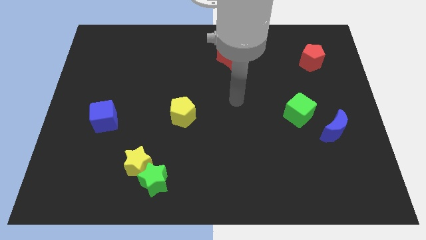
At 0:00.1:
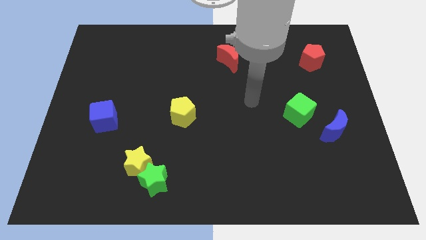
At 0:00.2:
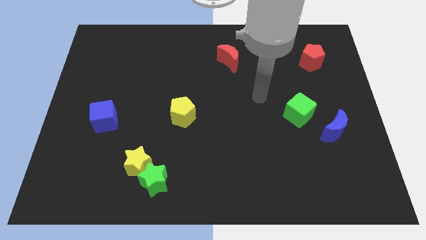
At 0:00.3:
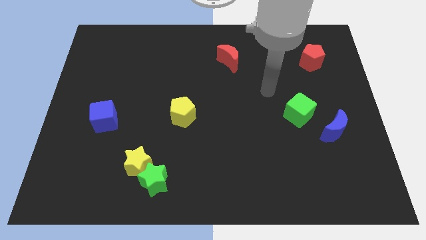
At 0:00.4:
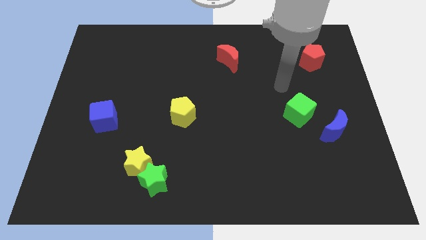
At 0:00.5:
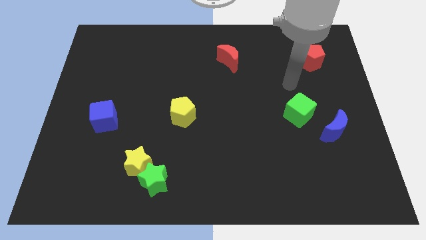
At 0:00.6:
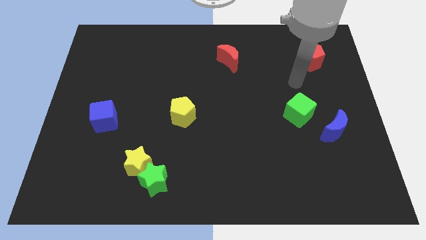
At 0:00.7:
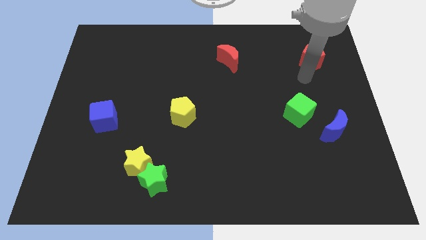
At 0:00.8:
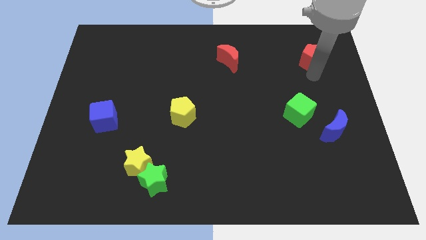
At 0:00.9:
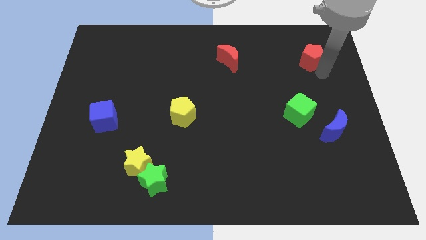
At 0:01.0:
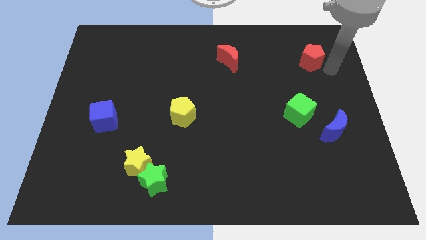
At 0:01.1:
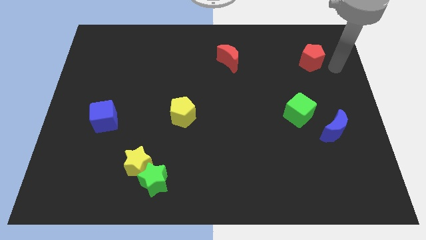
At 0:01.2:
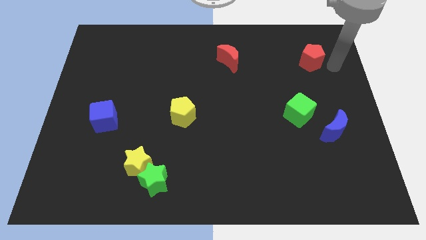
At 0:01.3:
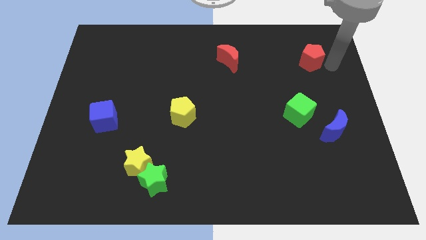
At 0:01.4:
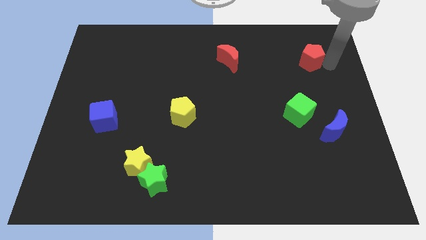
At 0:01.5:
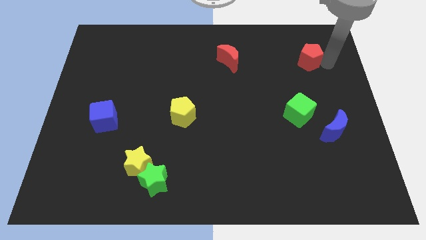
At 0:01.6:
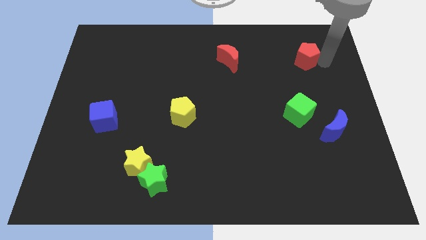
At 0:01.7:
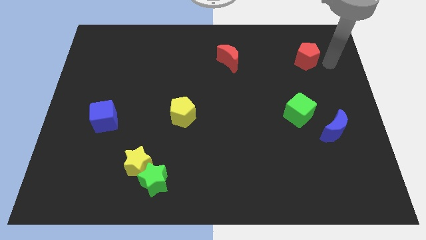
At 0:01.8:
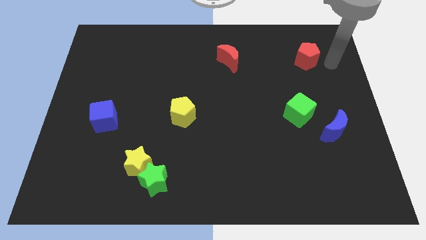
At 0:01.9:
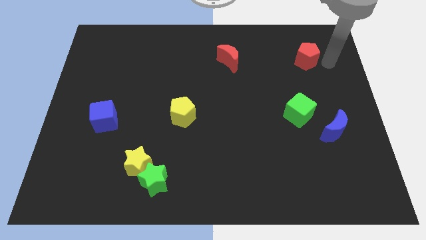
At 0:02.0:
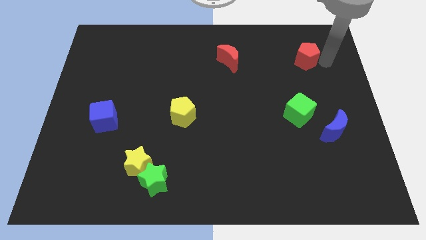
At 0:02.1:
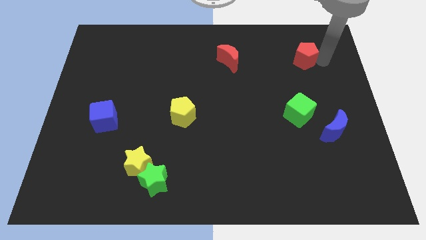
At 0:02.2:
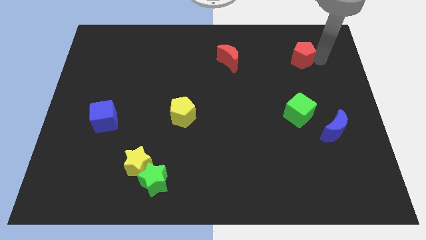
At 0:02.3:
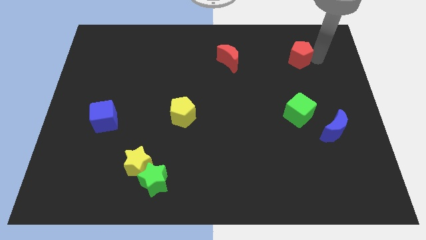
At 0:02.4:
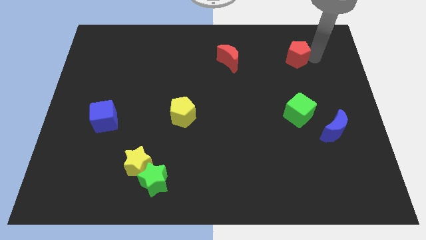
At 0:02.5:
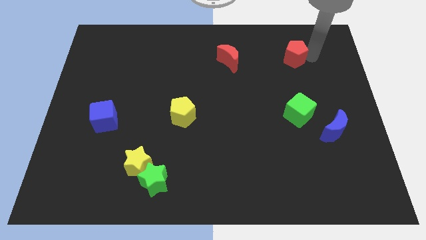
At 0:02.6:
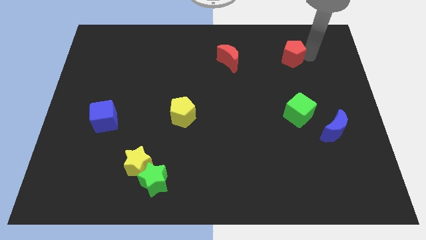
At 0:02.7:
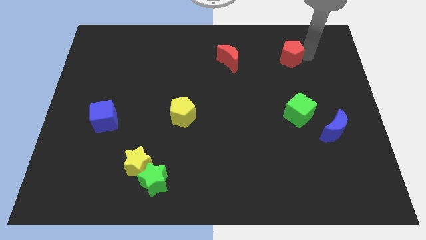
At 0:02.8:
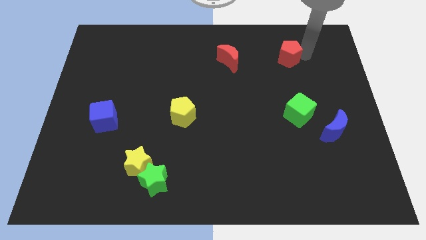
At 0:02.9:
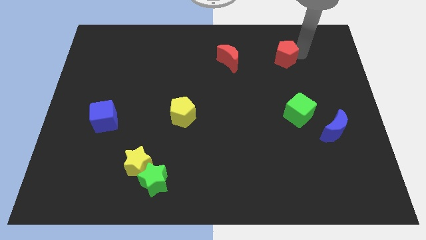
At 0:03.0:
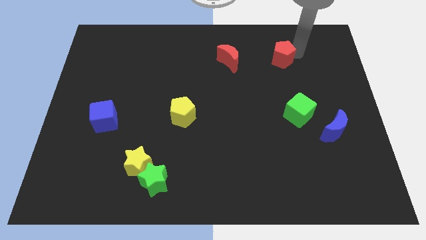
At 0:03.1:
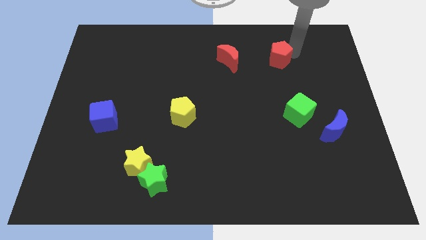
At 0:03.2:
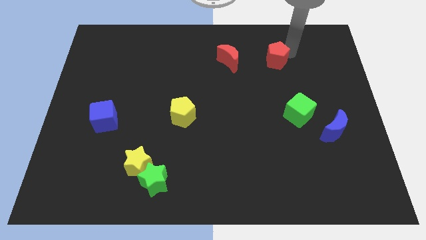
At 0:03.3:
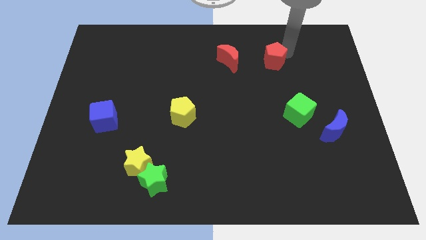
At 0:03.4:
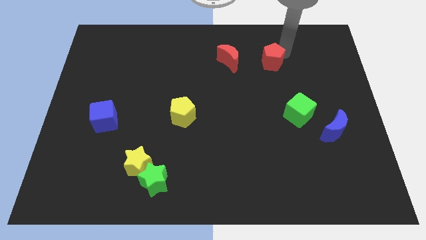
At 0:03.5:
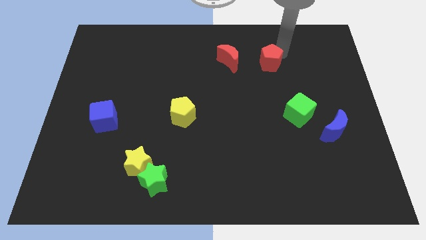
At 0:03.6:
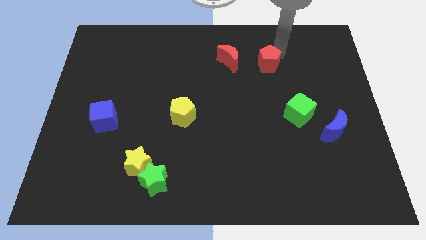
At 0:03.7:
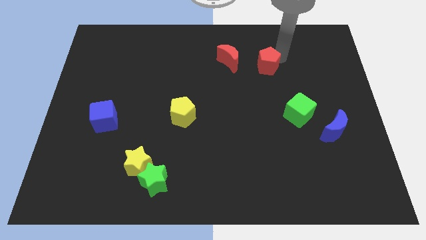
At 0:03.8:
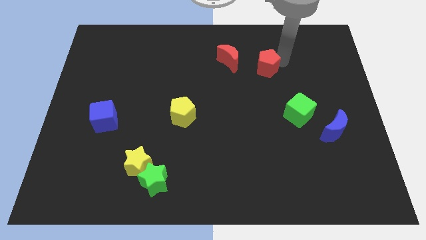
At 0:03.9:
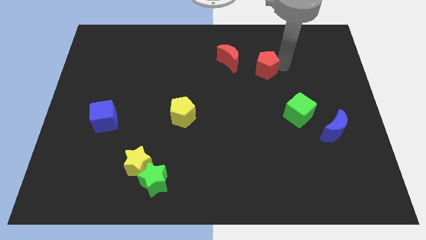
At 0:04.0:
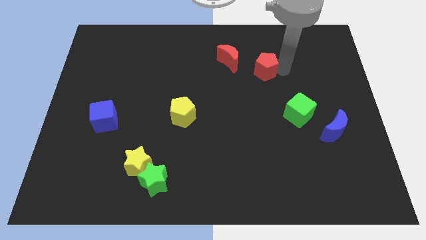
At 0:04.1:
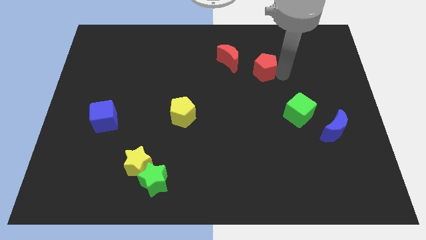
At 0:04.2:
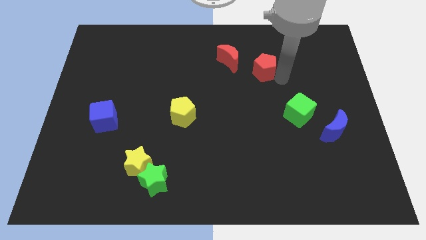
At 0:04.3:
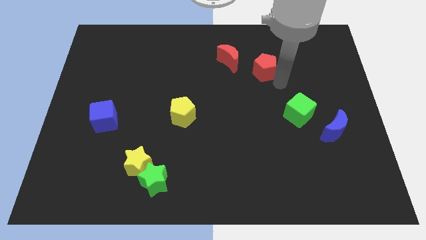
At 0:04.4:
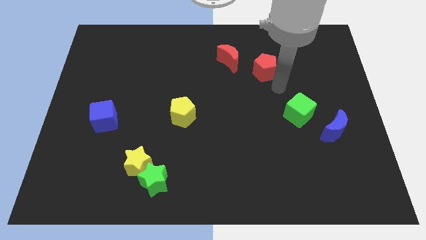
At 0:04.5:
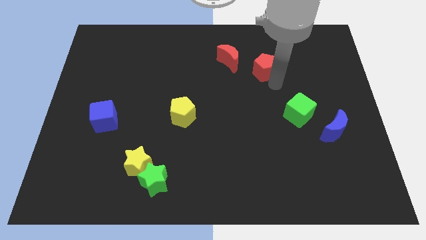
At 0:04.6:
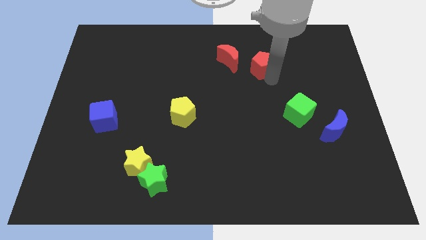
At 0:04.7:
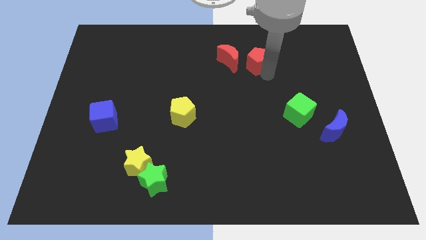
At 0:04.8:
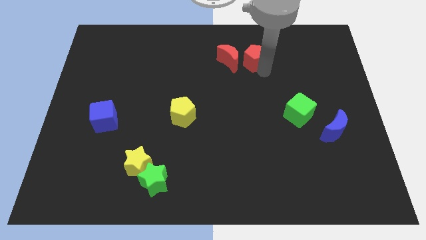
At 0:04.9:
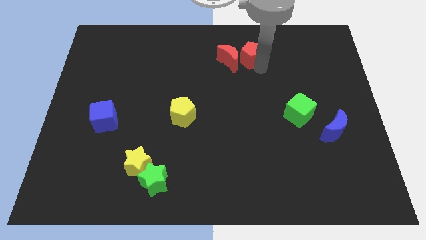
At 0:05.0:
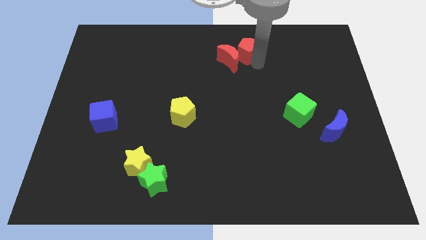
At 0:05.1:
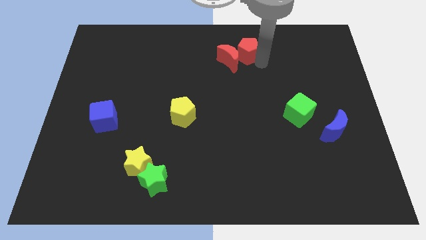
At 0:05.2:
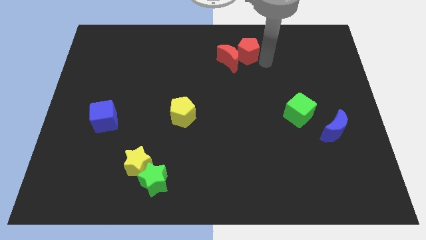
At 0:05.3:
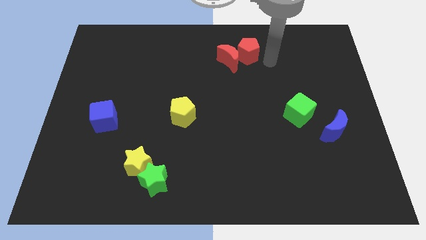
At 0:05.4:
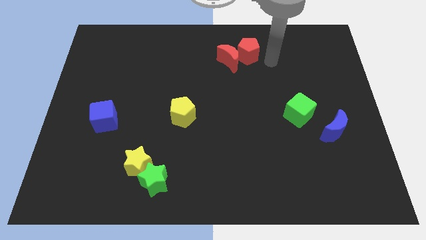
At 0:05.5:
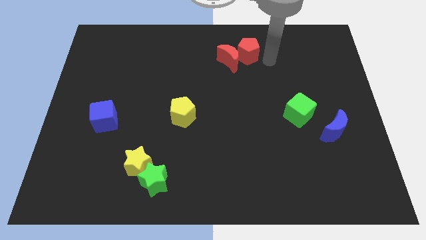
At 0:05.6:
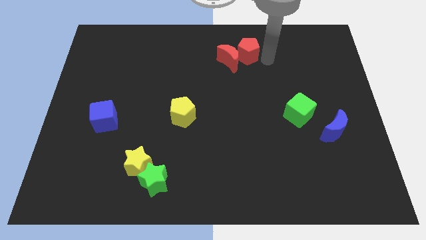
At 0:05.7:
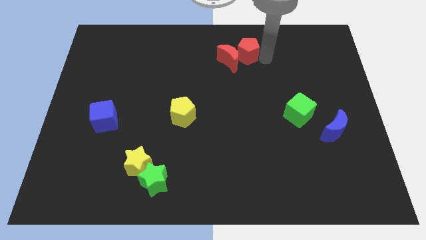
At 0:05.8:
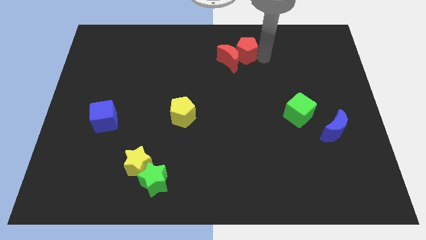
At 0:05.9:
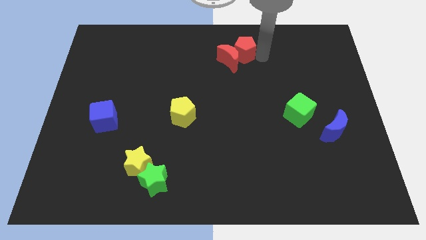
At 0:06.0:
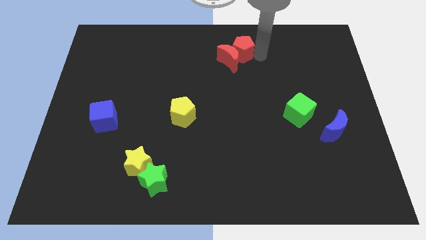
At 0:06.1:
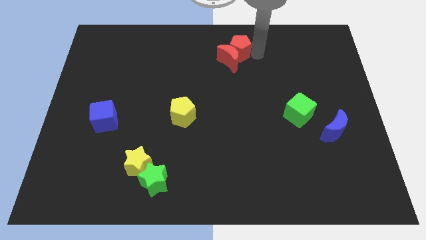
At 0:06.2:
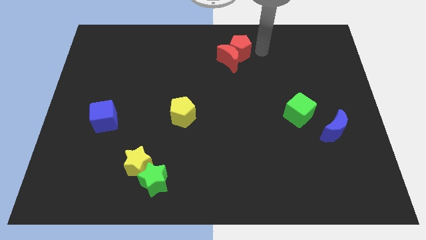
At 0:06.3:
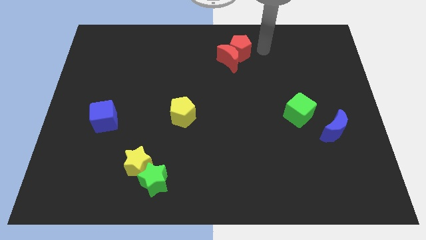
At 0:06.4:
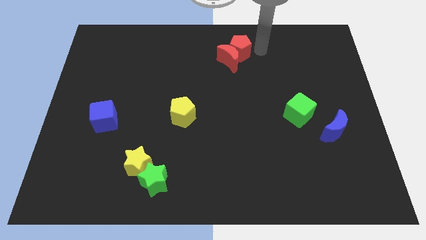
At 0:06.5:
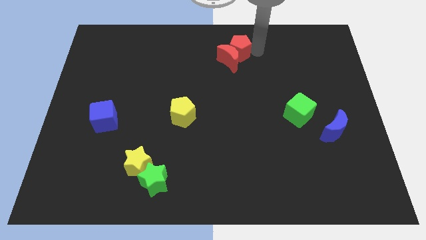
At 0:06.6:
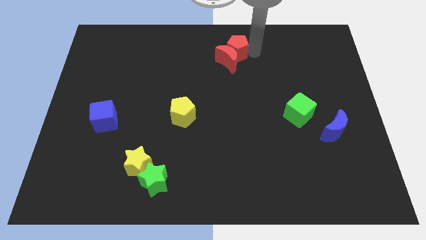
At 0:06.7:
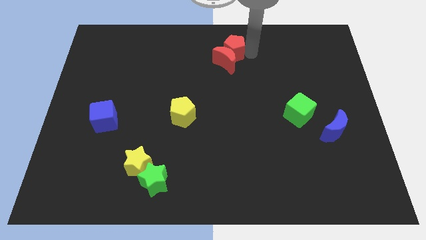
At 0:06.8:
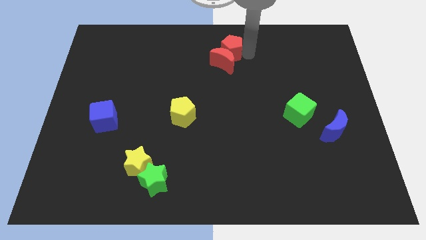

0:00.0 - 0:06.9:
push the red pentagon left

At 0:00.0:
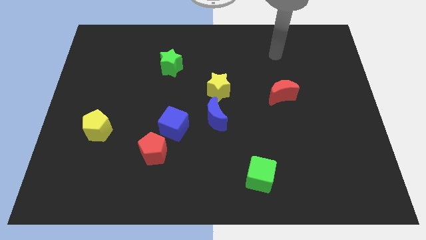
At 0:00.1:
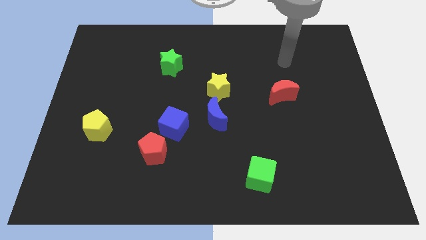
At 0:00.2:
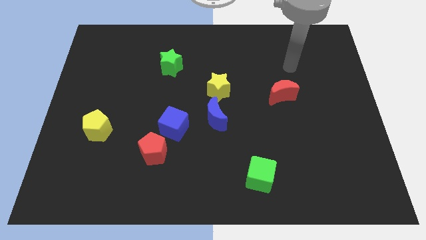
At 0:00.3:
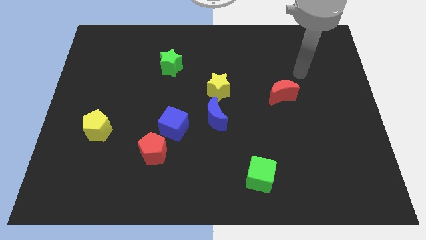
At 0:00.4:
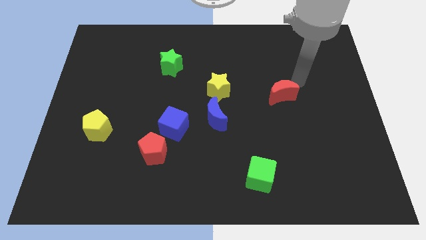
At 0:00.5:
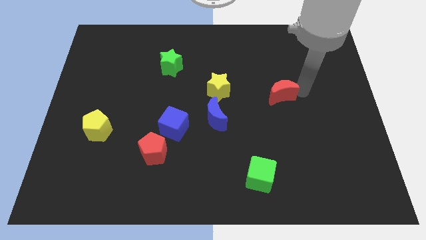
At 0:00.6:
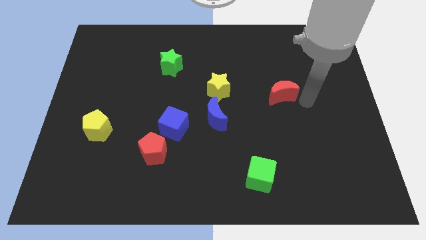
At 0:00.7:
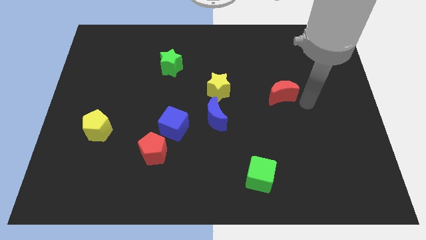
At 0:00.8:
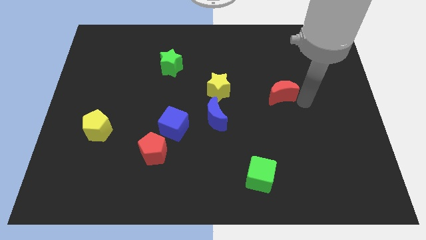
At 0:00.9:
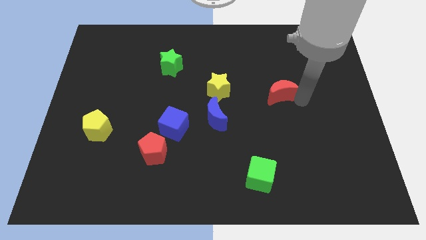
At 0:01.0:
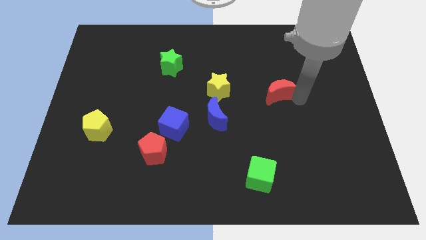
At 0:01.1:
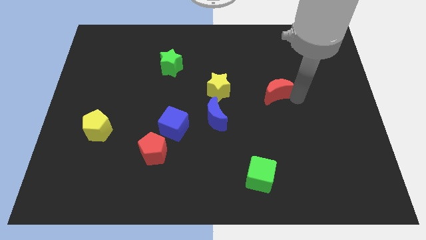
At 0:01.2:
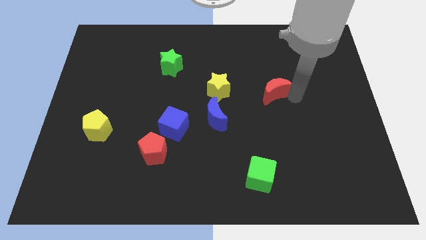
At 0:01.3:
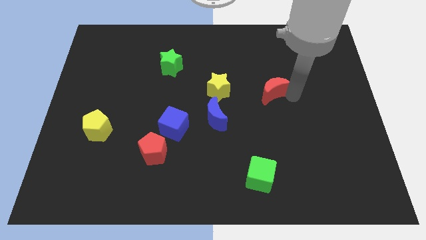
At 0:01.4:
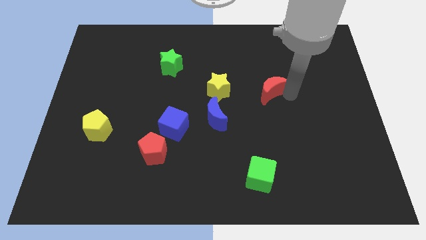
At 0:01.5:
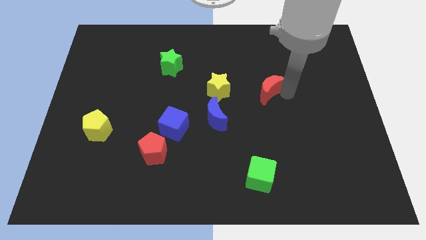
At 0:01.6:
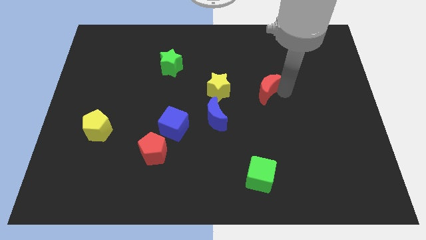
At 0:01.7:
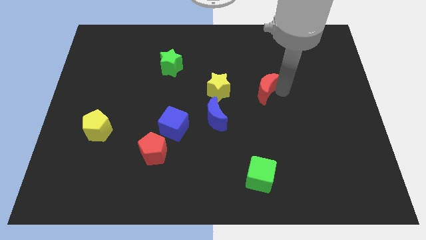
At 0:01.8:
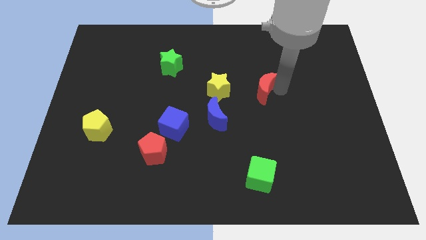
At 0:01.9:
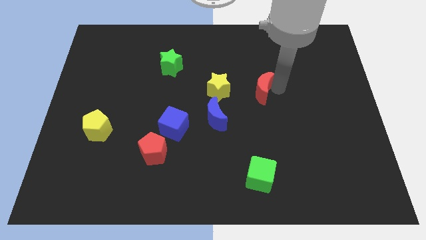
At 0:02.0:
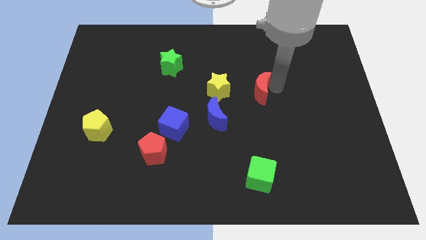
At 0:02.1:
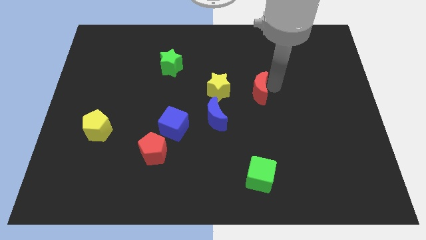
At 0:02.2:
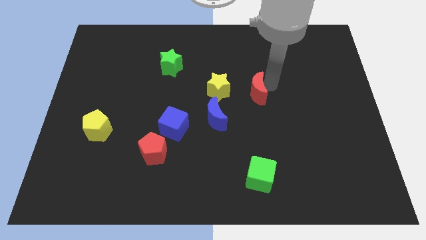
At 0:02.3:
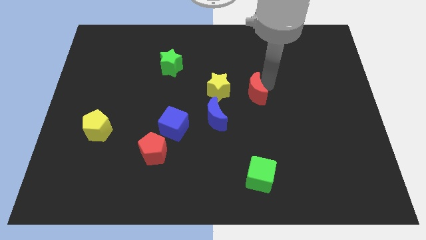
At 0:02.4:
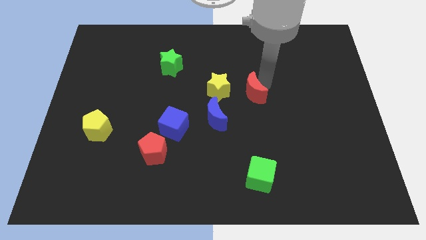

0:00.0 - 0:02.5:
slightly move the red moon left
